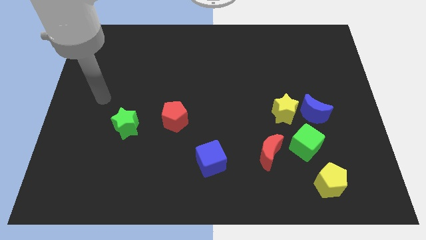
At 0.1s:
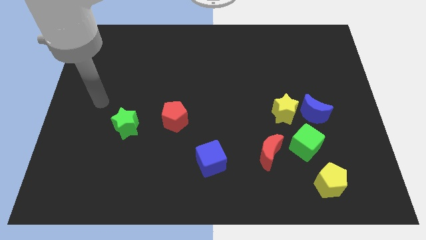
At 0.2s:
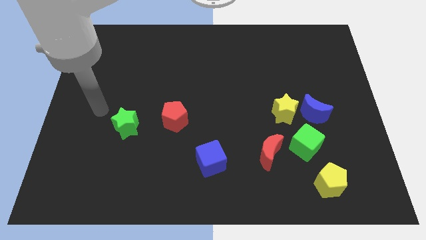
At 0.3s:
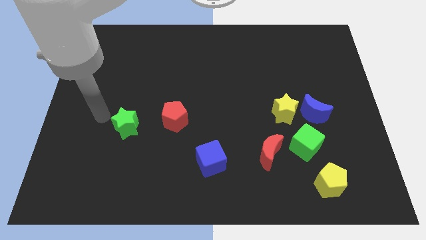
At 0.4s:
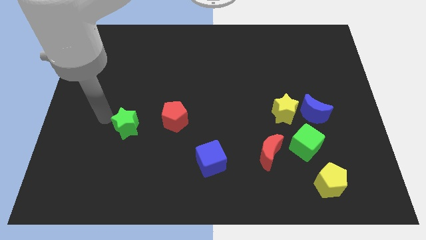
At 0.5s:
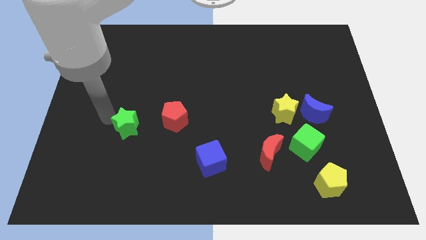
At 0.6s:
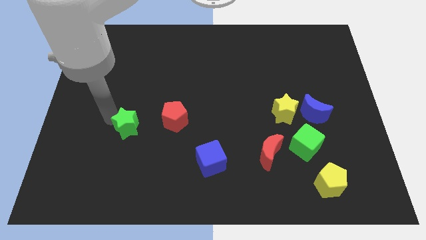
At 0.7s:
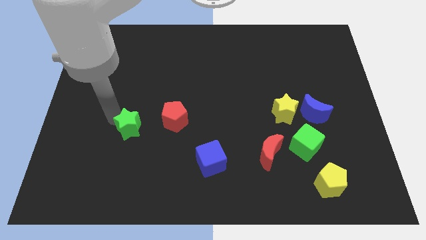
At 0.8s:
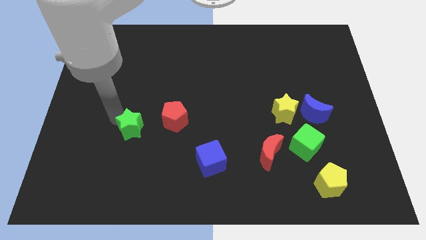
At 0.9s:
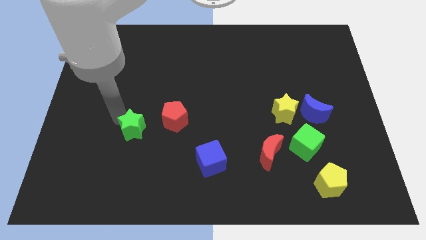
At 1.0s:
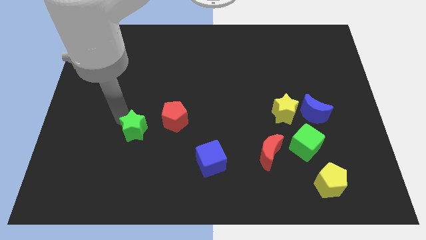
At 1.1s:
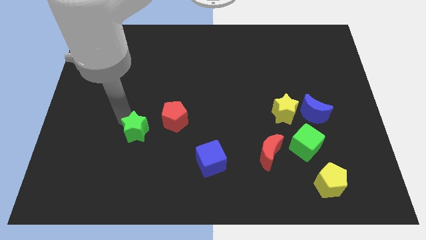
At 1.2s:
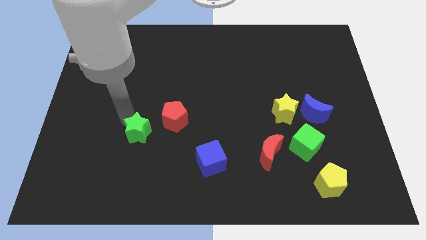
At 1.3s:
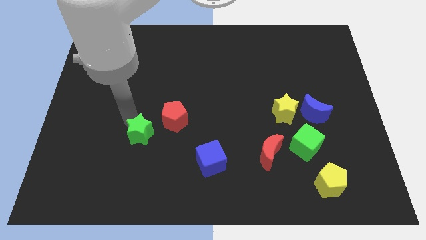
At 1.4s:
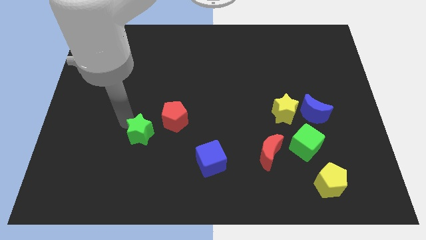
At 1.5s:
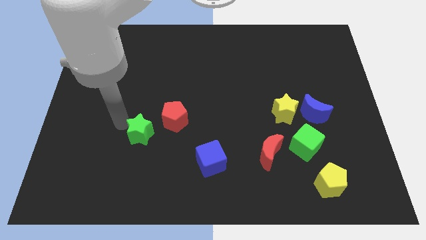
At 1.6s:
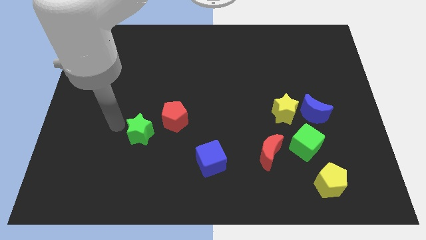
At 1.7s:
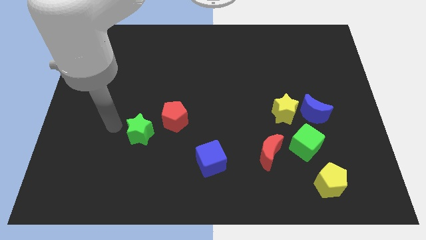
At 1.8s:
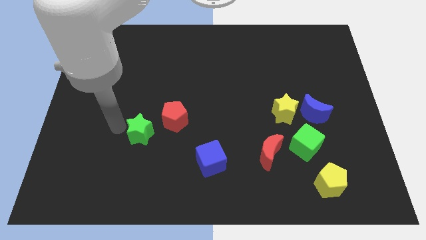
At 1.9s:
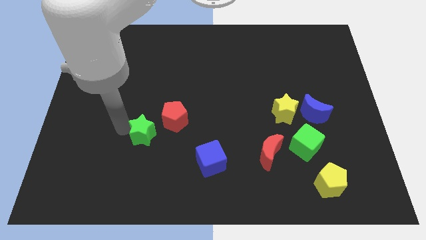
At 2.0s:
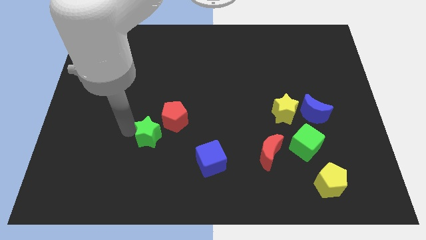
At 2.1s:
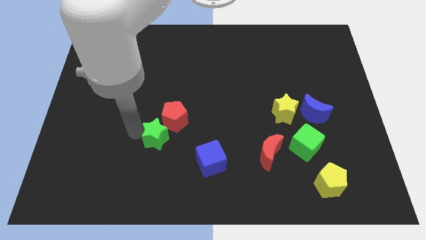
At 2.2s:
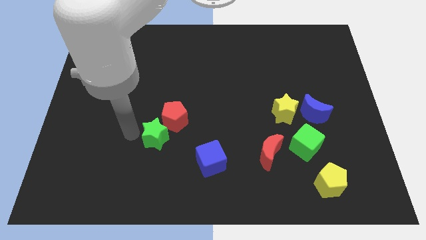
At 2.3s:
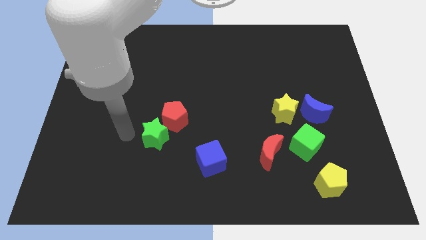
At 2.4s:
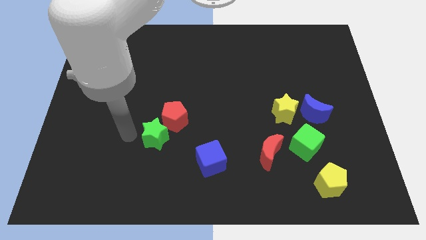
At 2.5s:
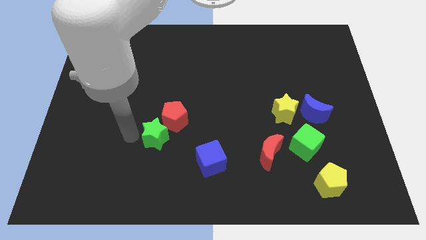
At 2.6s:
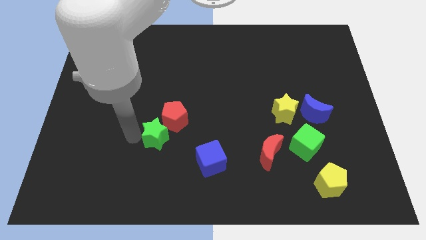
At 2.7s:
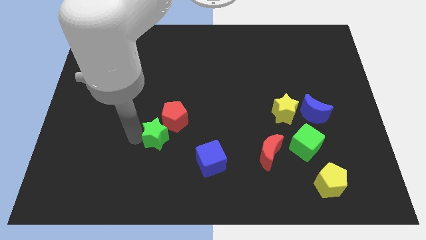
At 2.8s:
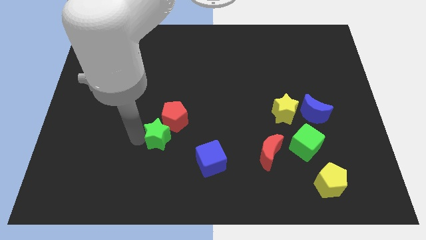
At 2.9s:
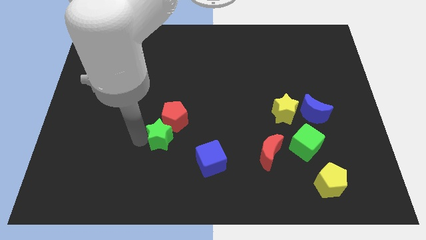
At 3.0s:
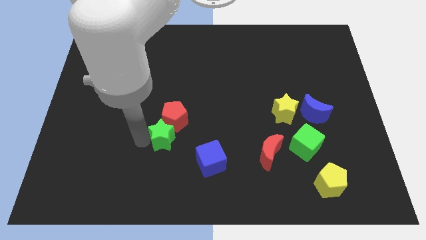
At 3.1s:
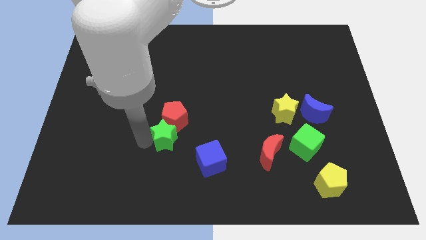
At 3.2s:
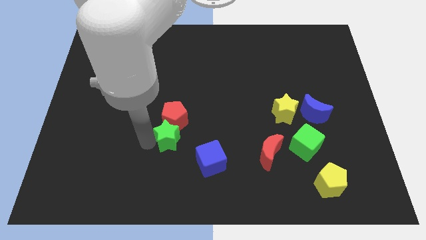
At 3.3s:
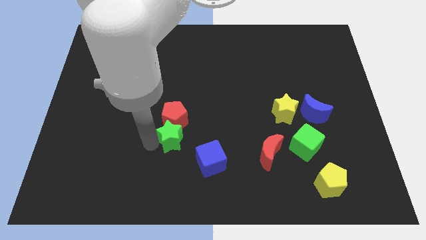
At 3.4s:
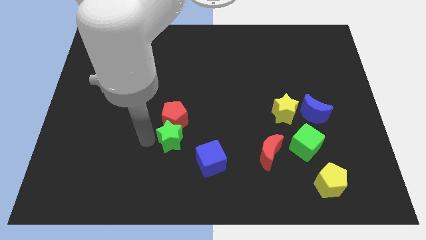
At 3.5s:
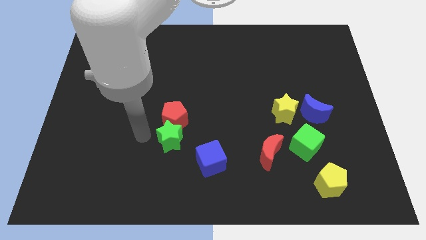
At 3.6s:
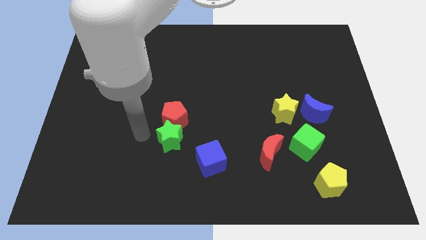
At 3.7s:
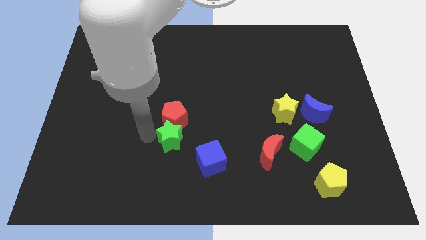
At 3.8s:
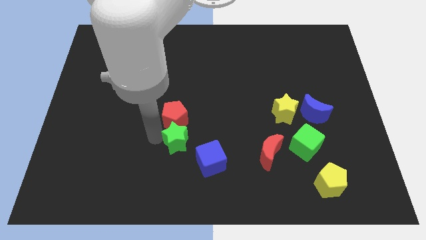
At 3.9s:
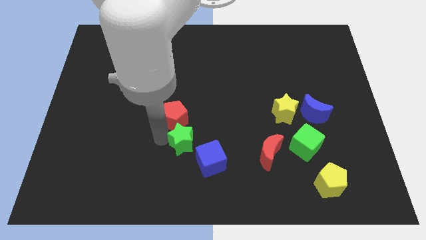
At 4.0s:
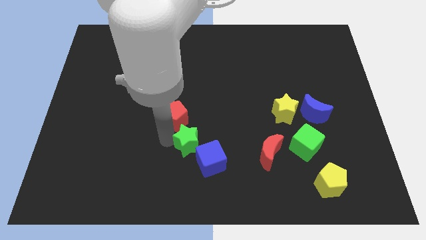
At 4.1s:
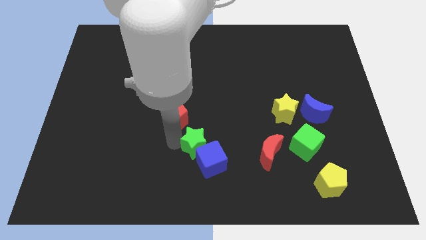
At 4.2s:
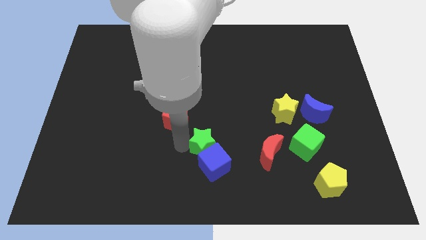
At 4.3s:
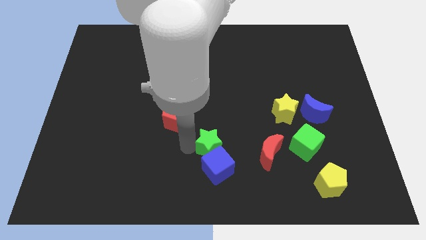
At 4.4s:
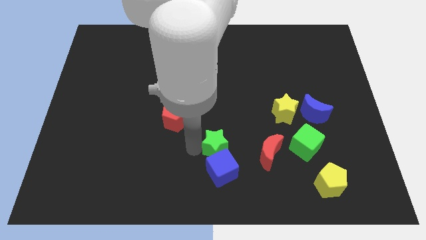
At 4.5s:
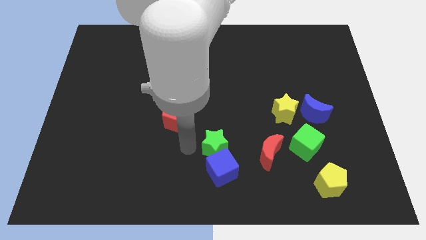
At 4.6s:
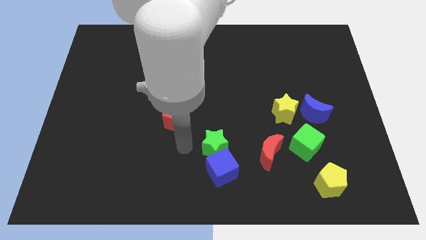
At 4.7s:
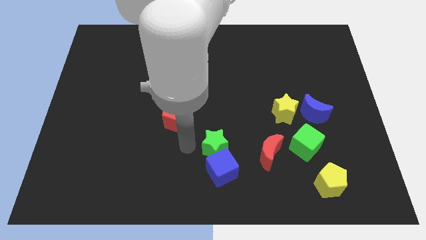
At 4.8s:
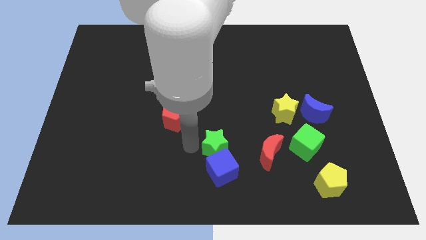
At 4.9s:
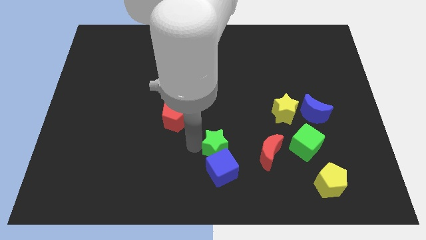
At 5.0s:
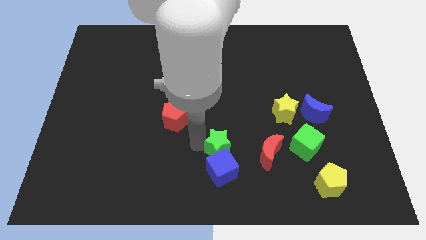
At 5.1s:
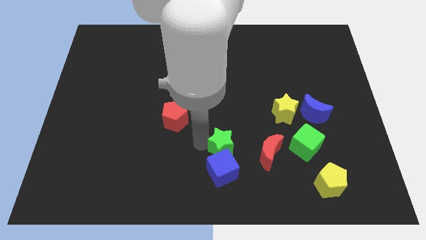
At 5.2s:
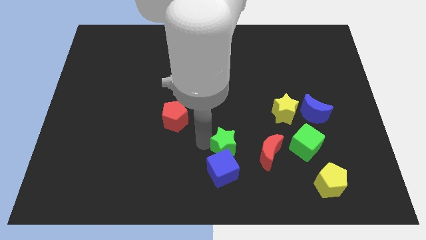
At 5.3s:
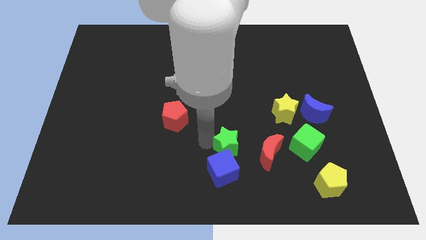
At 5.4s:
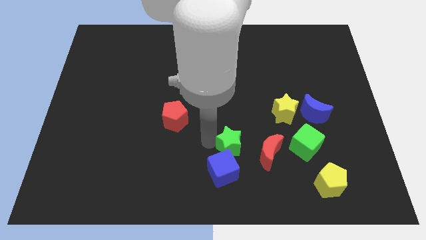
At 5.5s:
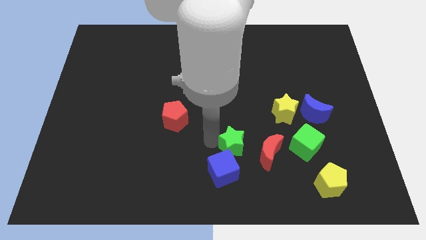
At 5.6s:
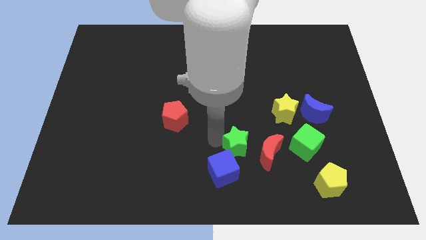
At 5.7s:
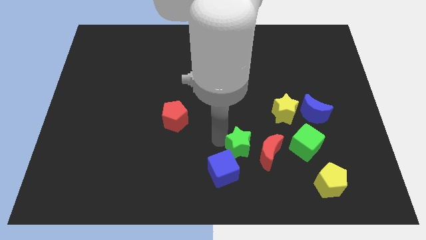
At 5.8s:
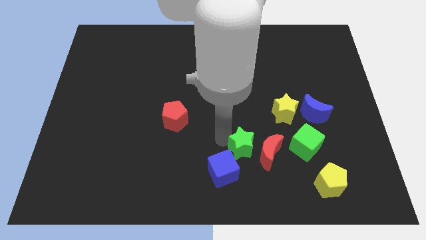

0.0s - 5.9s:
put the green star close to the red moon

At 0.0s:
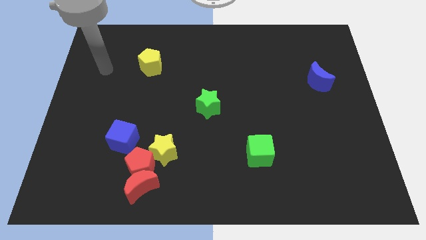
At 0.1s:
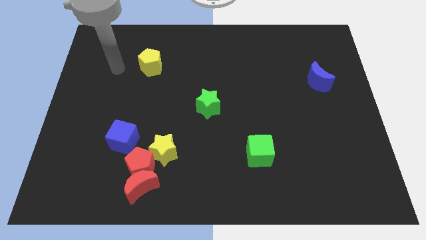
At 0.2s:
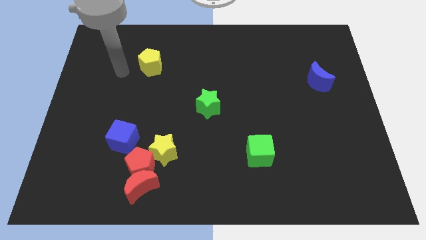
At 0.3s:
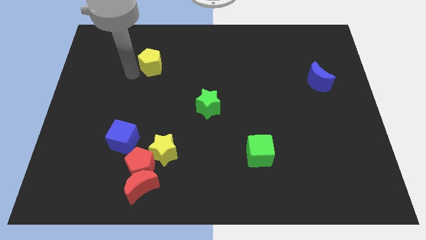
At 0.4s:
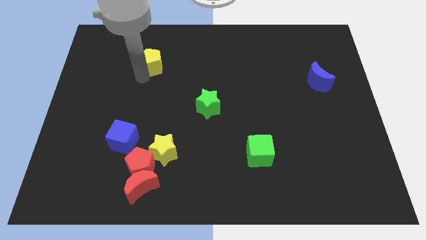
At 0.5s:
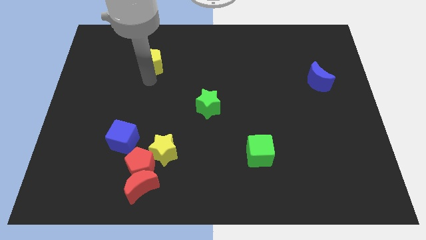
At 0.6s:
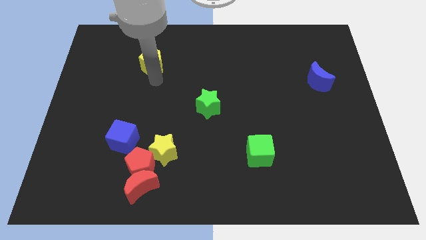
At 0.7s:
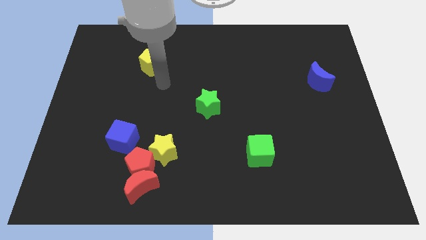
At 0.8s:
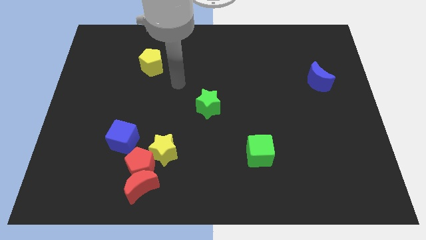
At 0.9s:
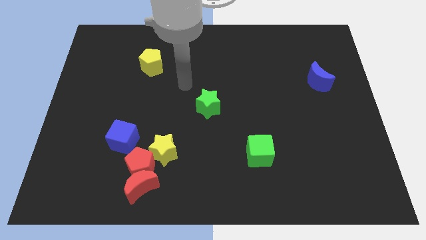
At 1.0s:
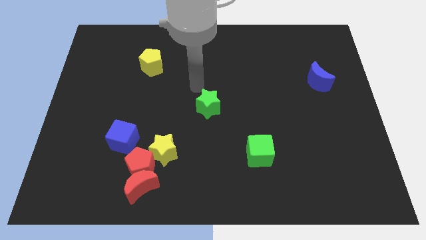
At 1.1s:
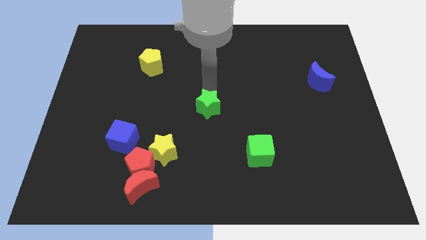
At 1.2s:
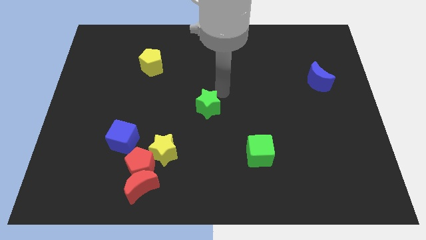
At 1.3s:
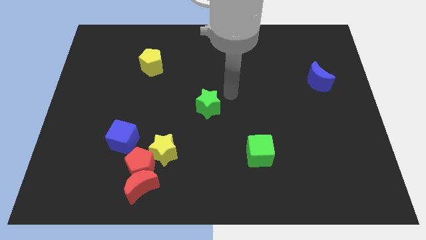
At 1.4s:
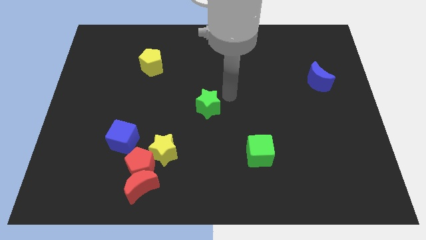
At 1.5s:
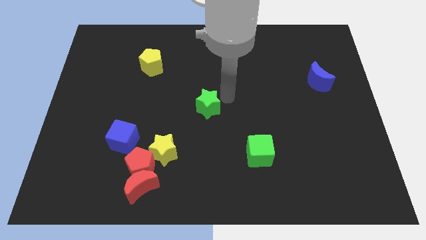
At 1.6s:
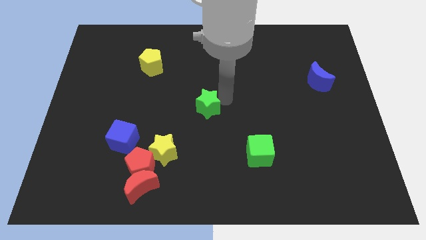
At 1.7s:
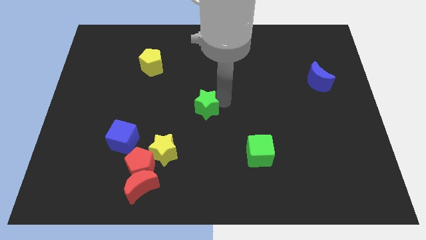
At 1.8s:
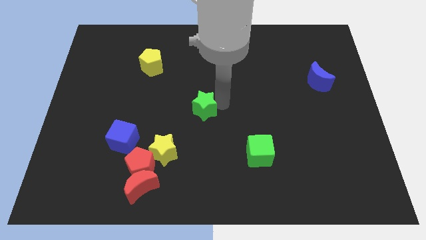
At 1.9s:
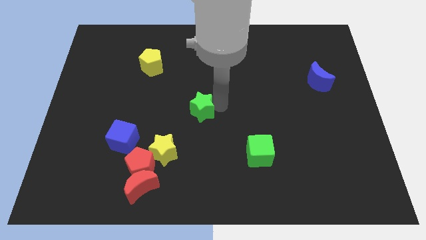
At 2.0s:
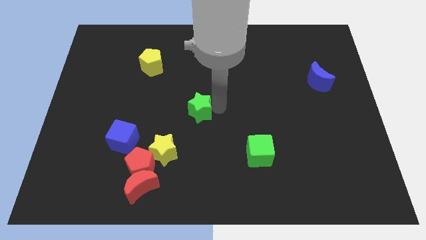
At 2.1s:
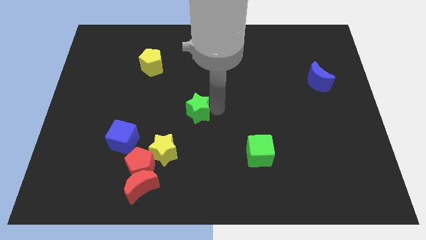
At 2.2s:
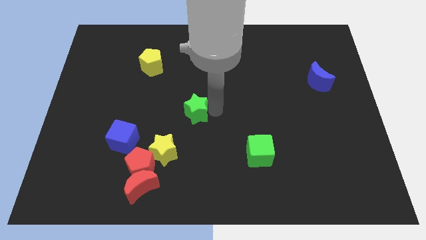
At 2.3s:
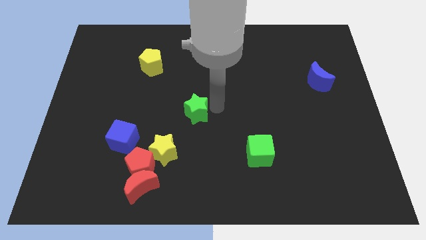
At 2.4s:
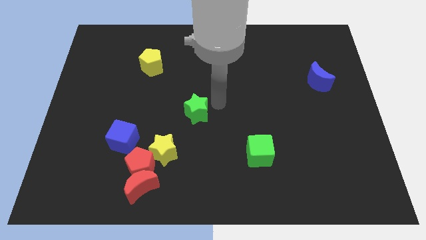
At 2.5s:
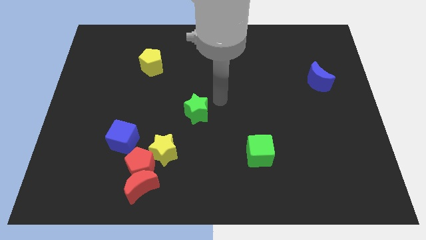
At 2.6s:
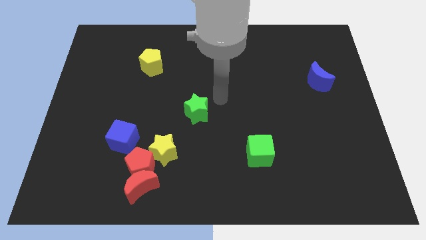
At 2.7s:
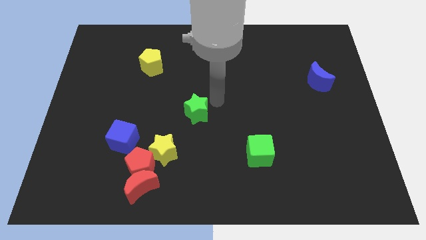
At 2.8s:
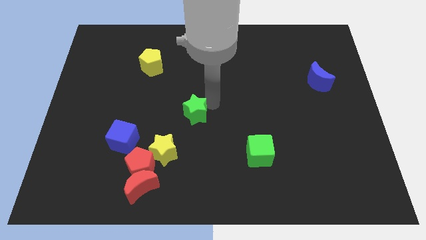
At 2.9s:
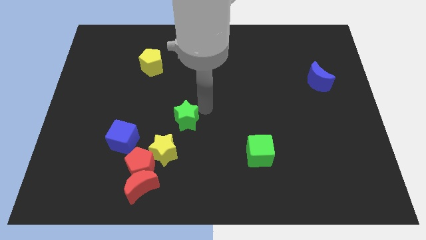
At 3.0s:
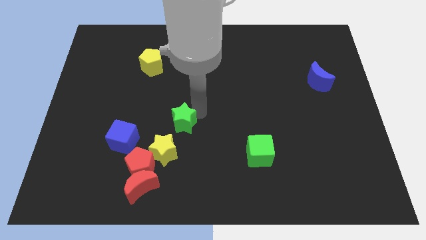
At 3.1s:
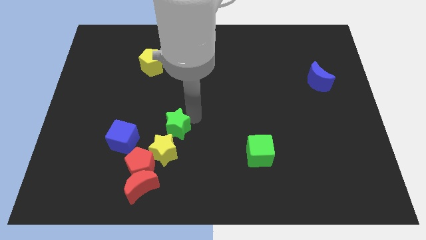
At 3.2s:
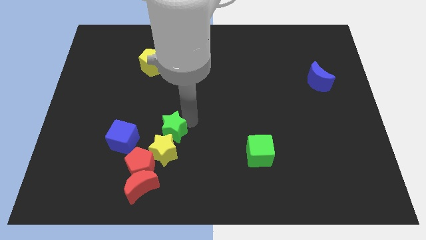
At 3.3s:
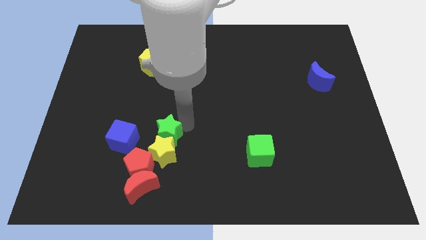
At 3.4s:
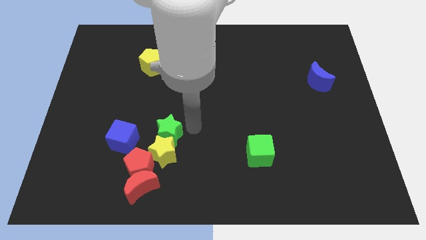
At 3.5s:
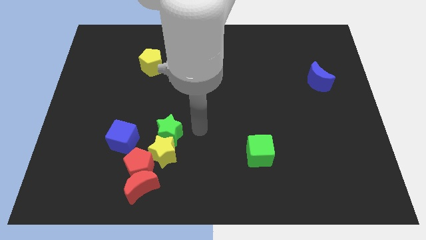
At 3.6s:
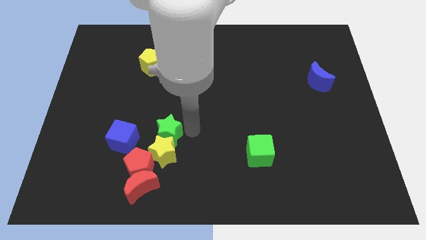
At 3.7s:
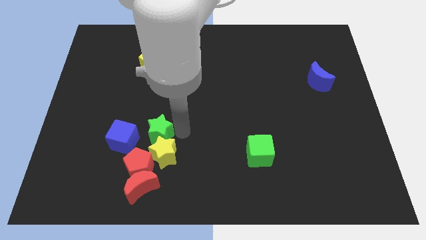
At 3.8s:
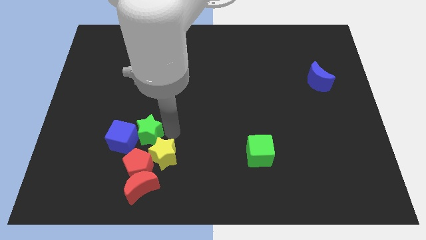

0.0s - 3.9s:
slide the green star towards the blue cube
